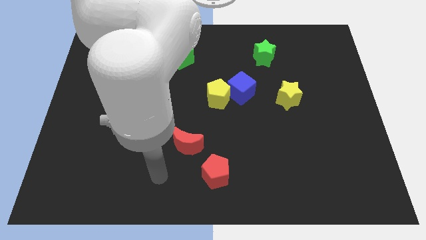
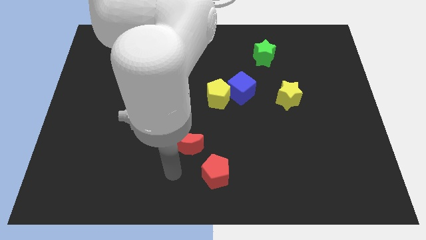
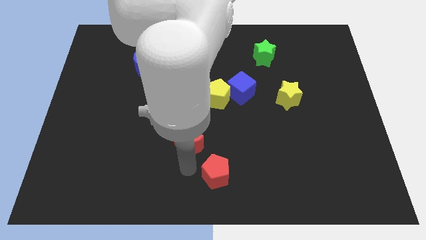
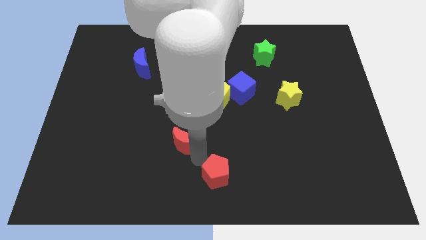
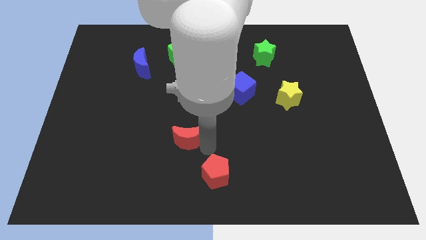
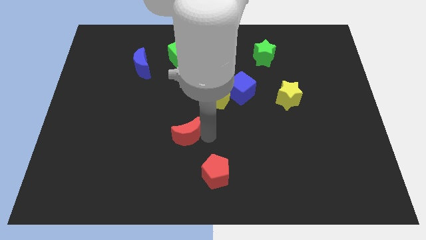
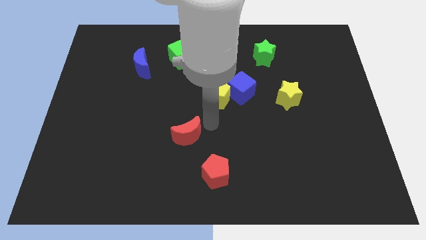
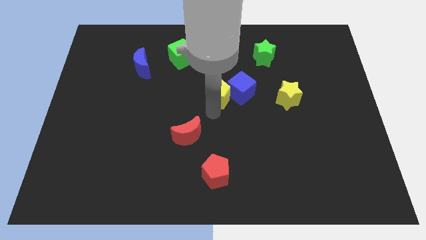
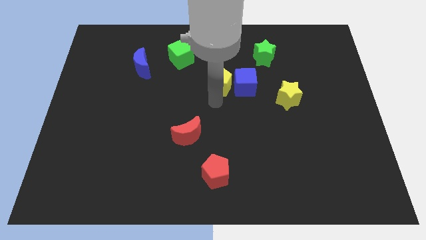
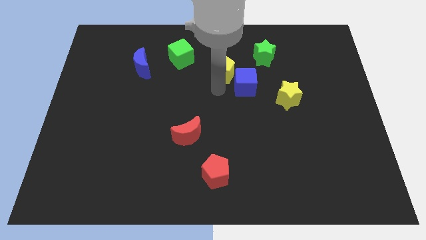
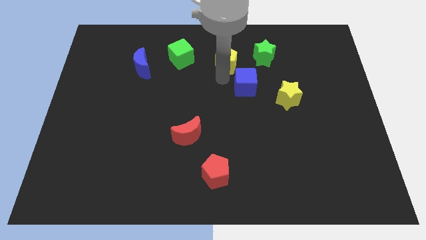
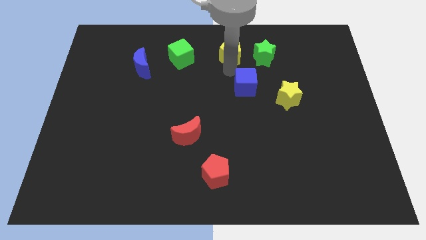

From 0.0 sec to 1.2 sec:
separate the blue cube from the yellow pentagon

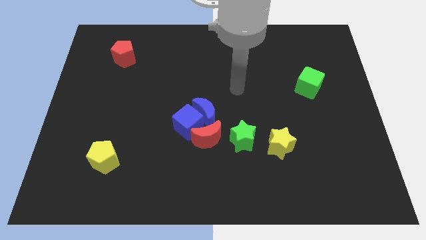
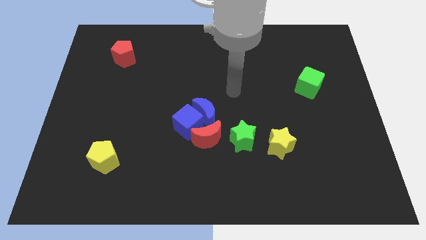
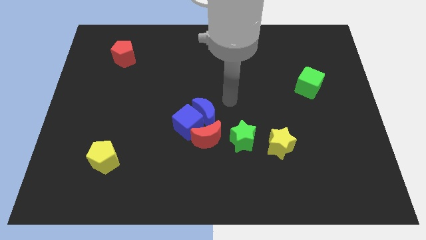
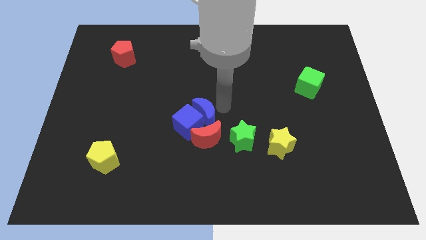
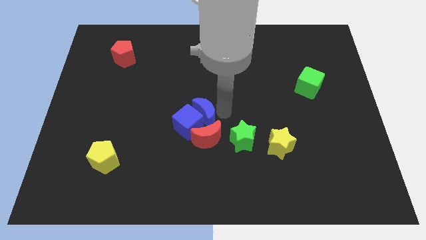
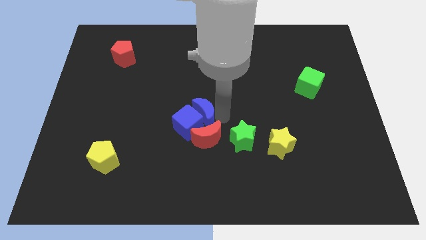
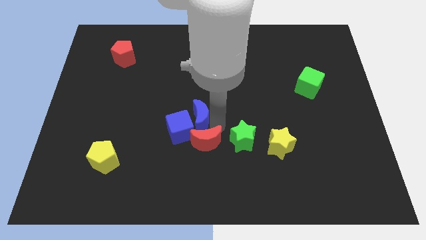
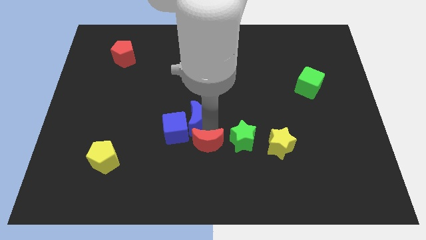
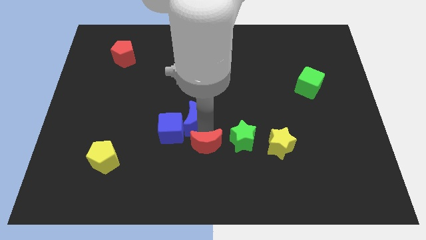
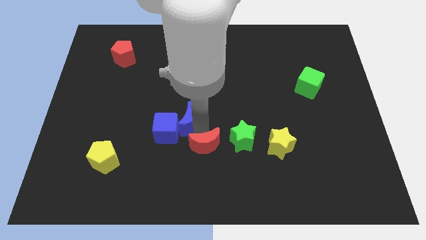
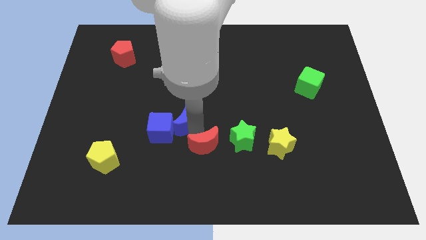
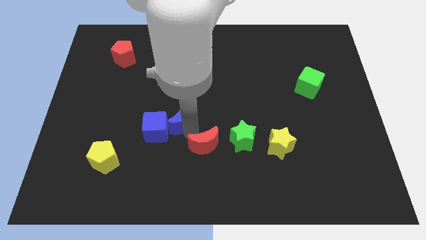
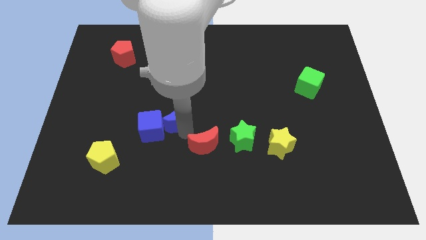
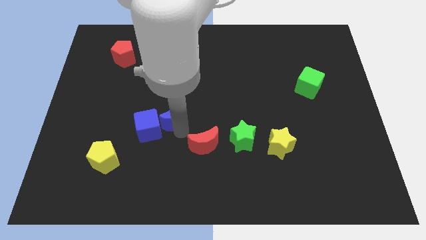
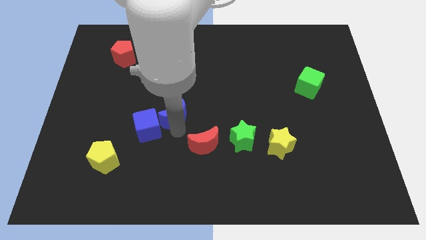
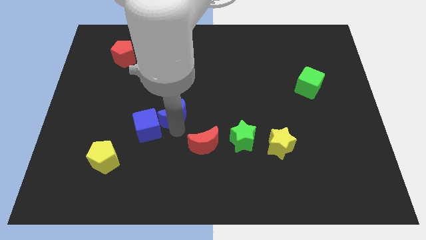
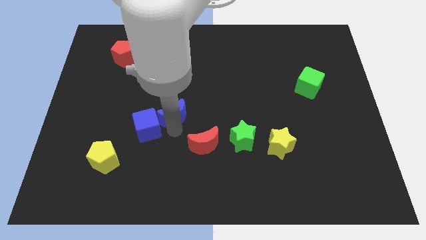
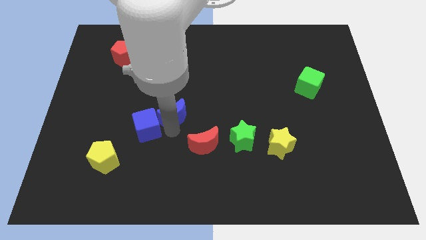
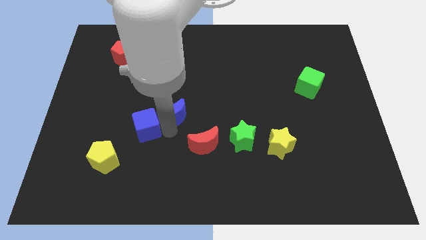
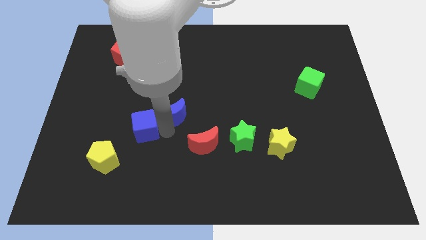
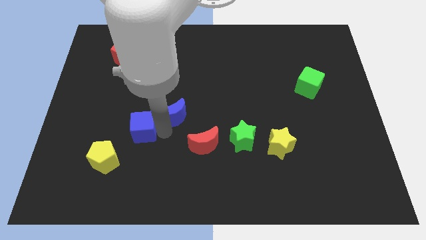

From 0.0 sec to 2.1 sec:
separate the blue cube from the blue moon and red moon

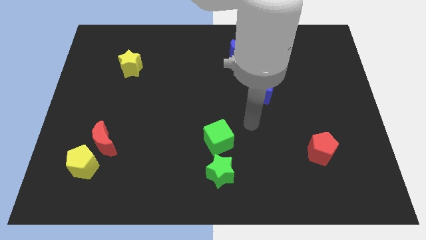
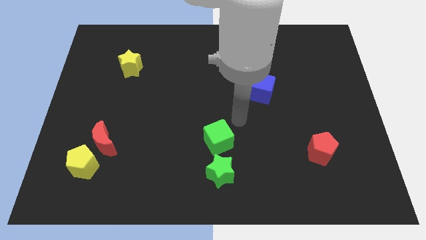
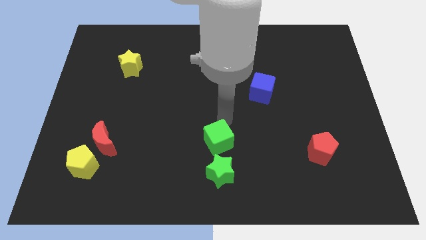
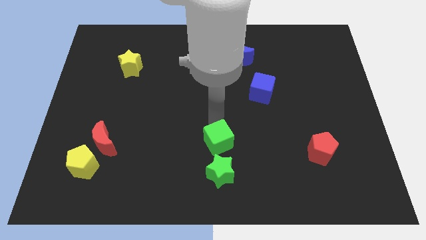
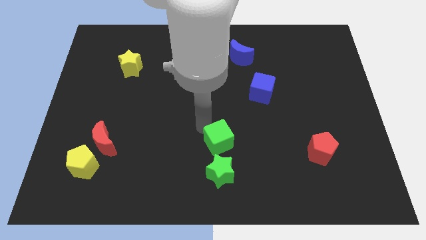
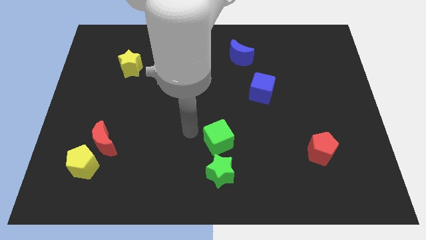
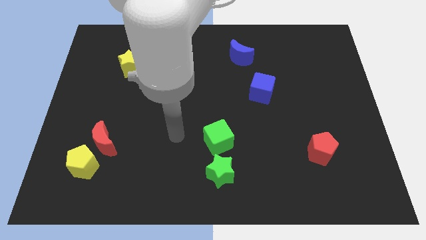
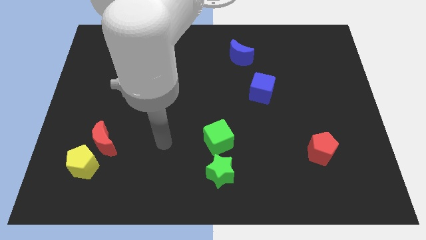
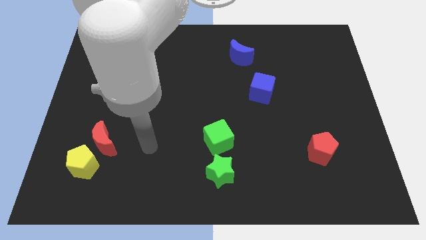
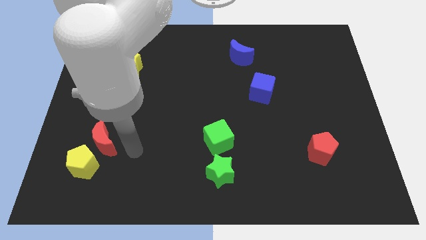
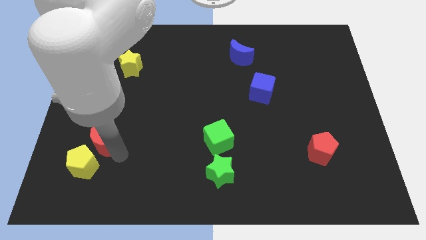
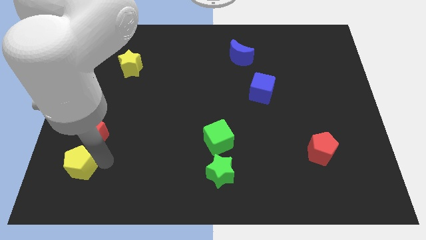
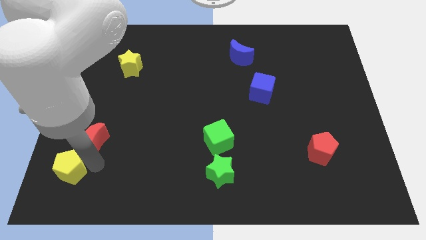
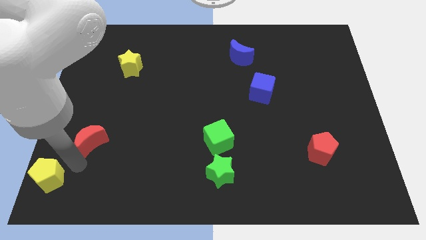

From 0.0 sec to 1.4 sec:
separate the red moon from the yellow pentagon

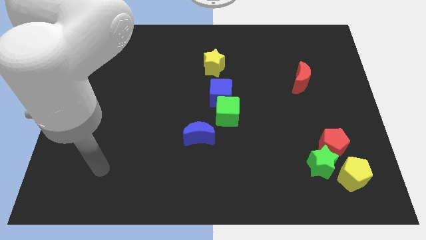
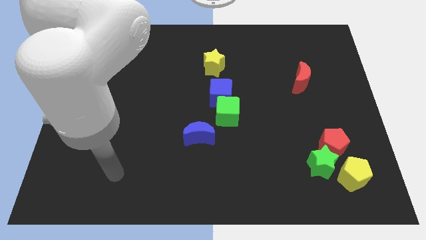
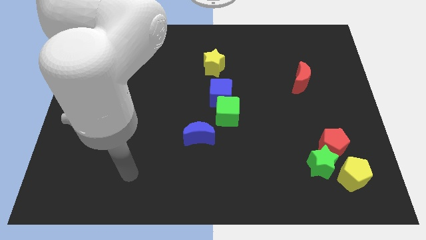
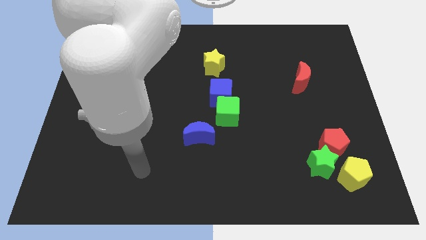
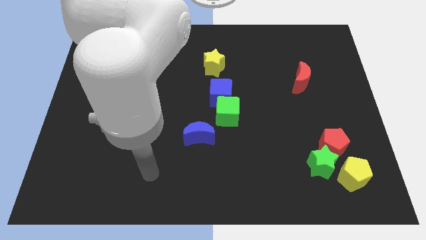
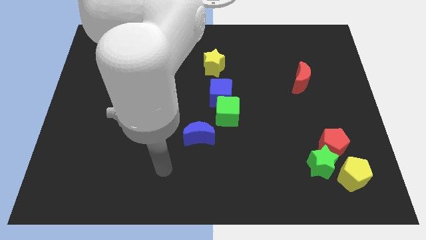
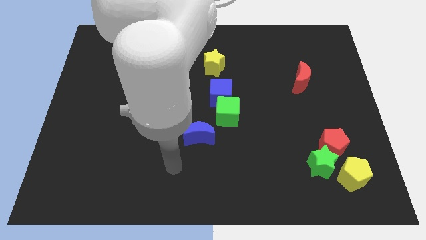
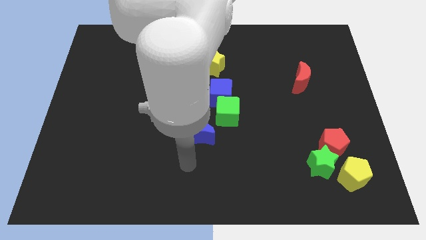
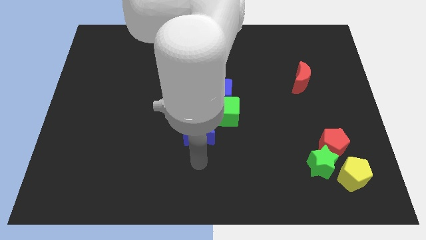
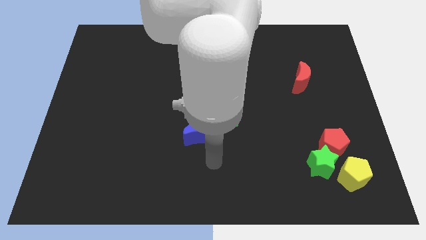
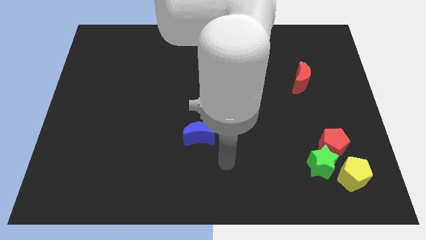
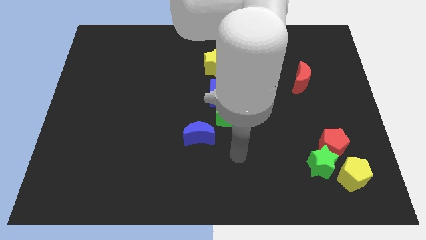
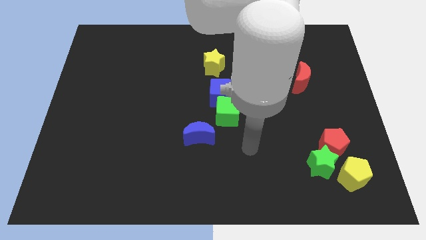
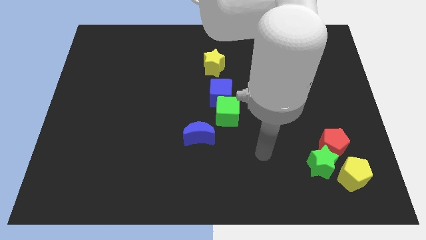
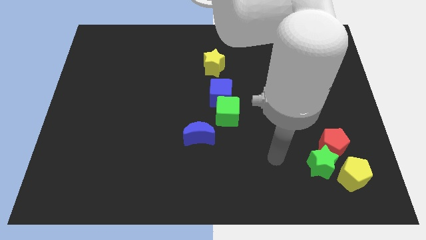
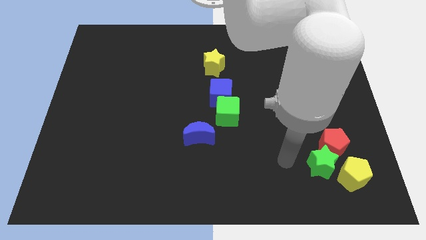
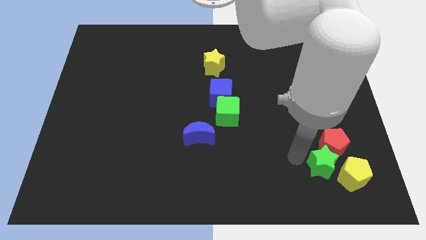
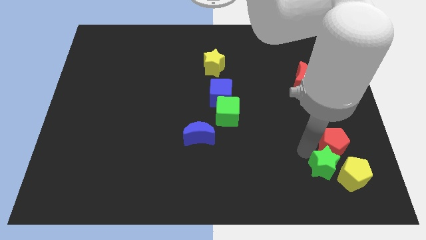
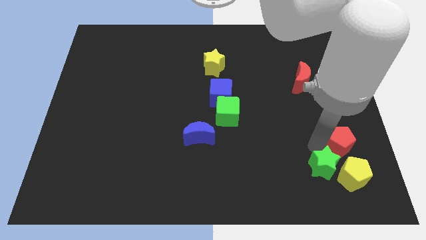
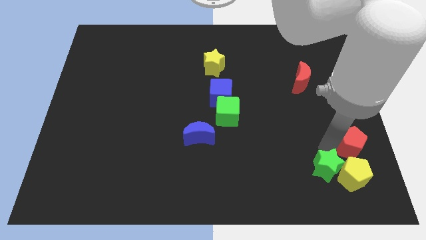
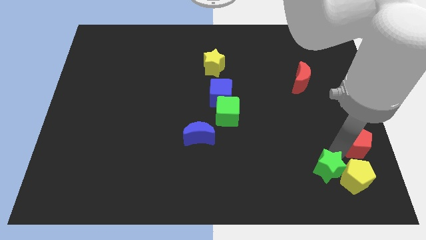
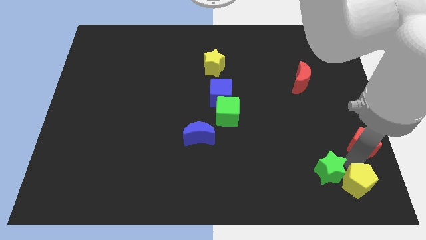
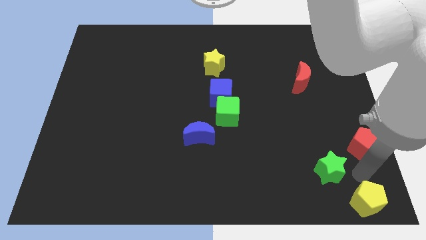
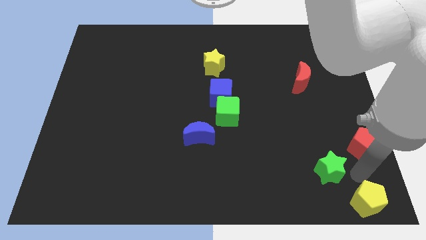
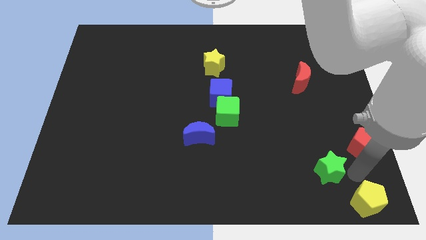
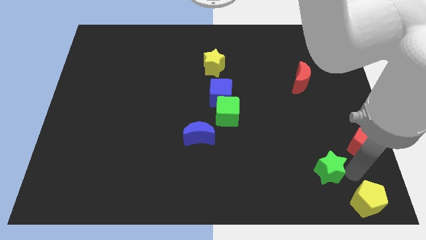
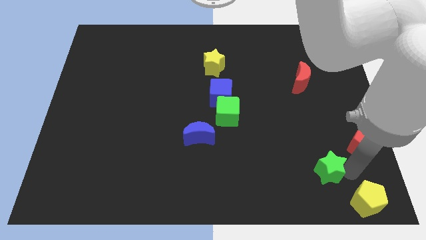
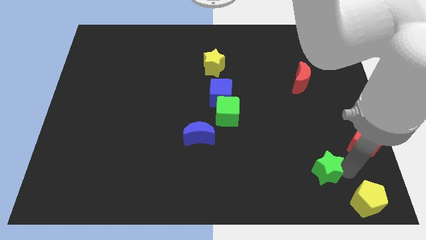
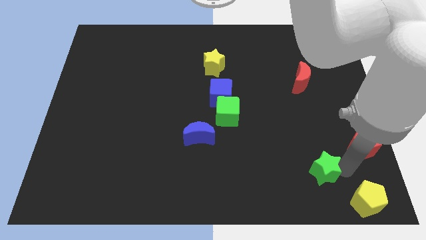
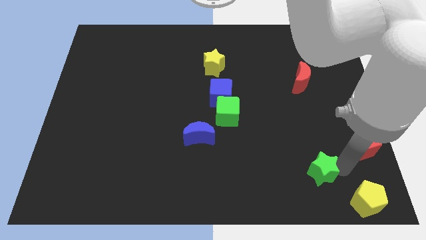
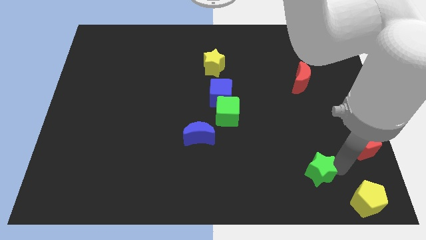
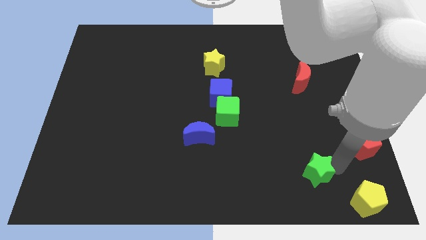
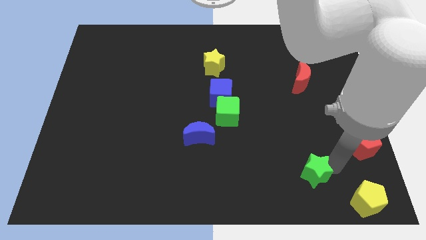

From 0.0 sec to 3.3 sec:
pull the green star apart from the red pentagon and yellow pentagon

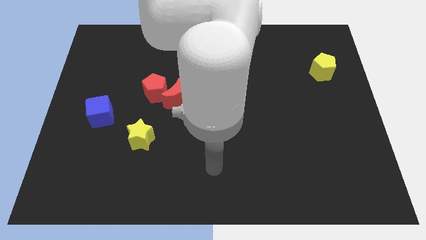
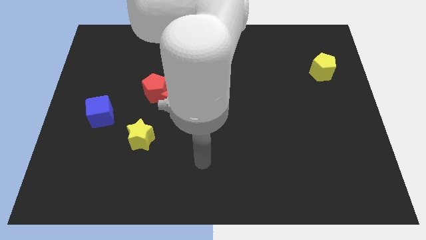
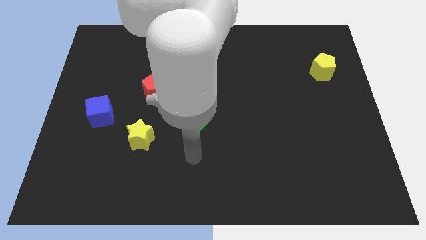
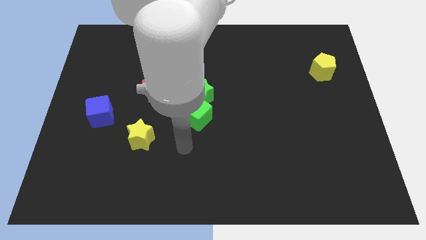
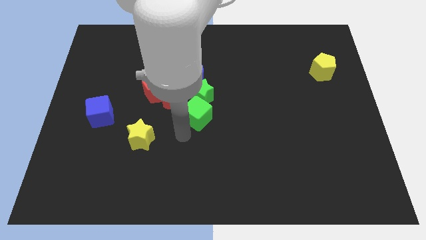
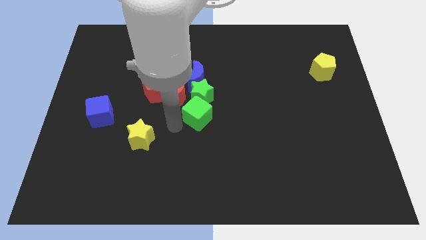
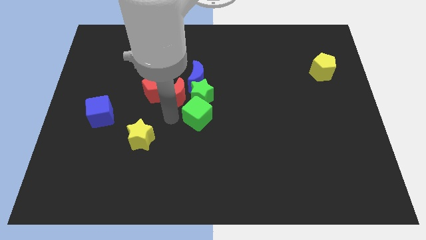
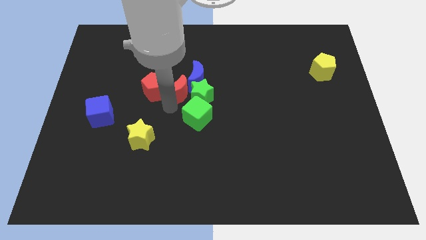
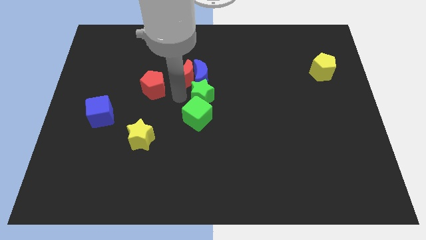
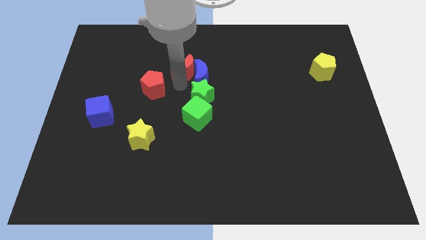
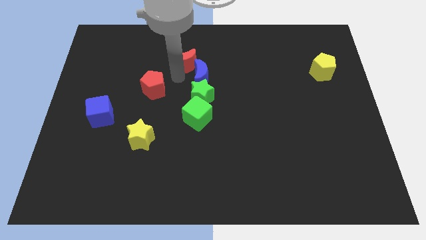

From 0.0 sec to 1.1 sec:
pull the red pentagon apart from the red moon
